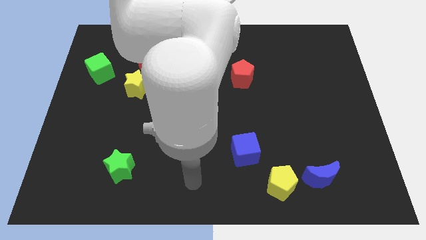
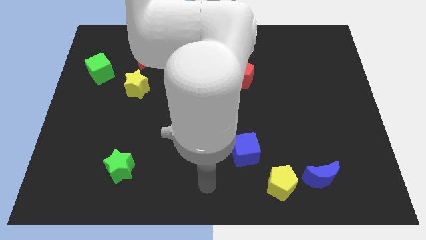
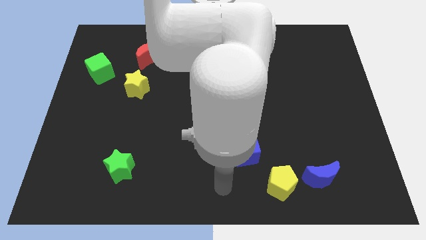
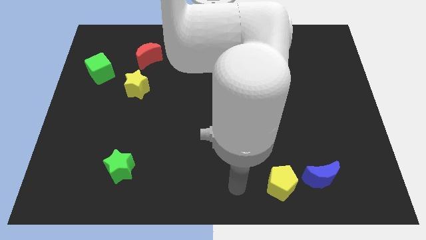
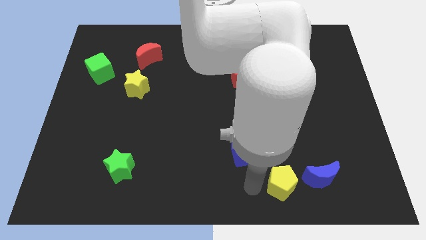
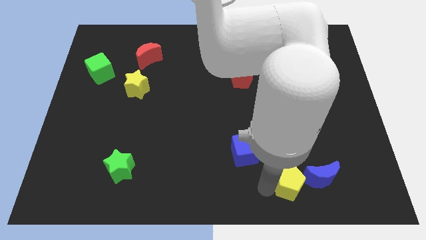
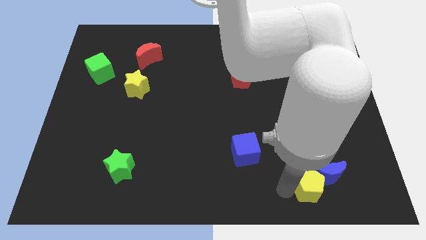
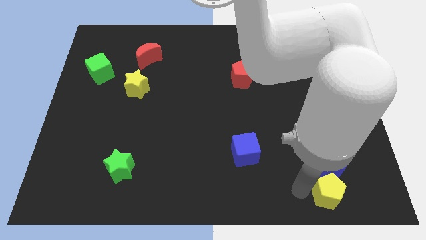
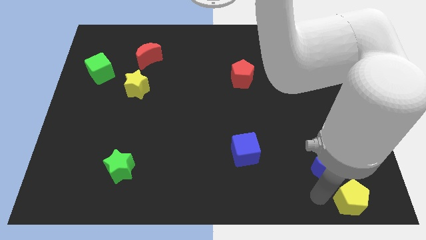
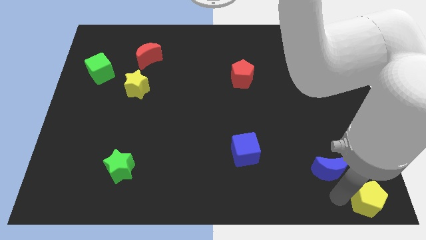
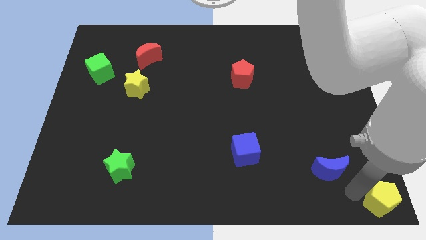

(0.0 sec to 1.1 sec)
pull the blue moon apart from the yellow pentagon

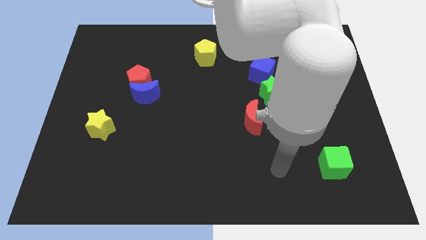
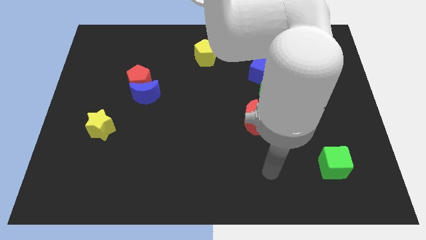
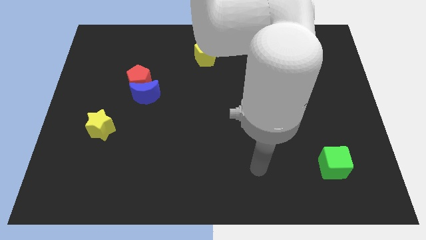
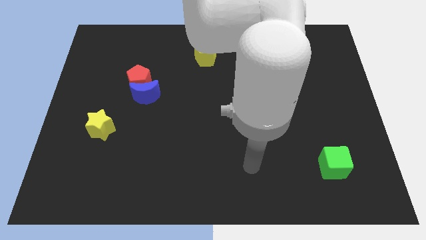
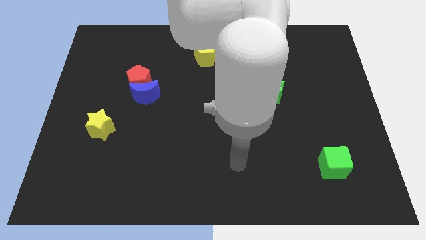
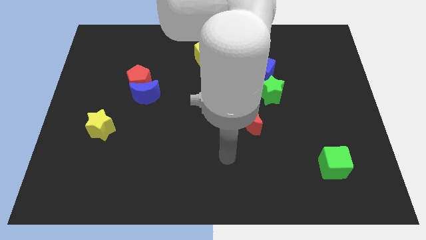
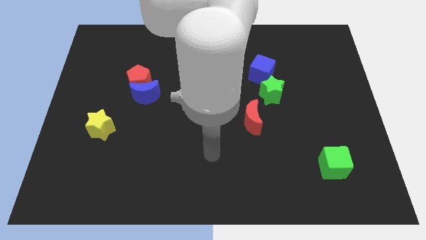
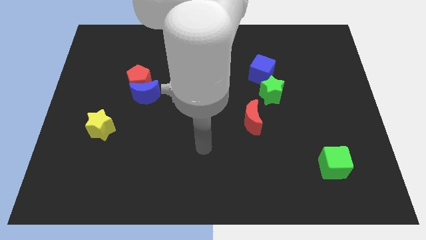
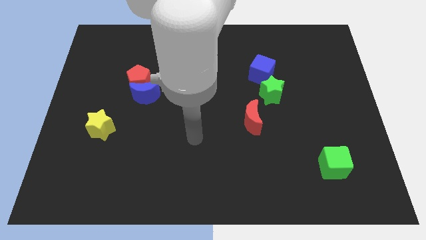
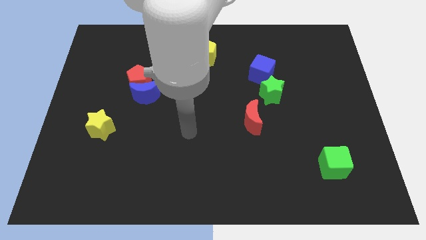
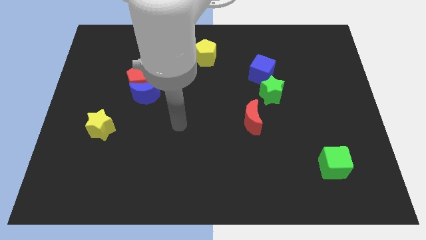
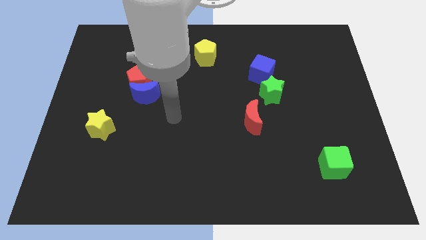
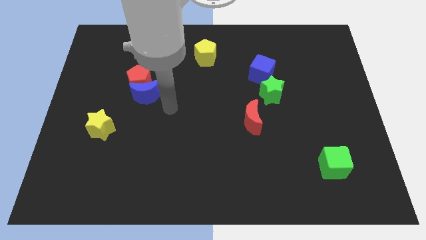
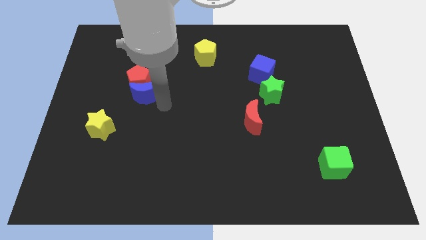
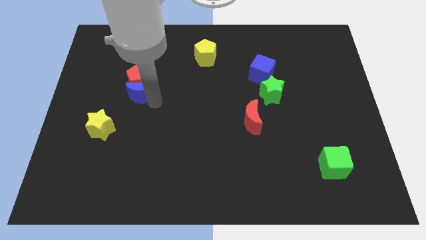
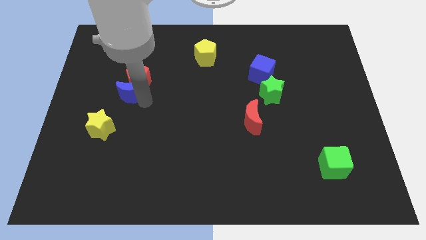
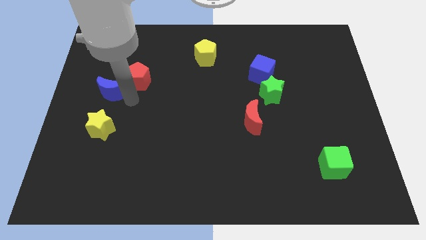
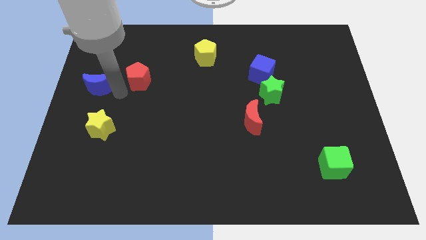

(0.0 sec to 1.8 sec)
move the red pentagon away from the blue moon

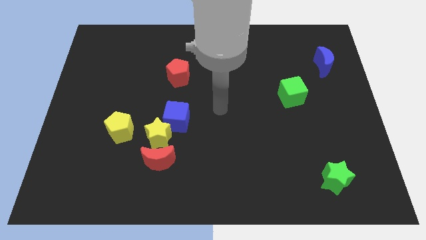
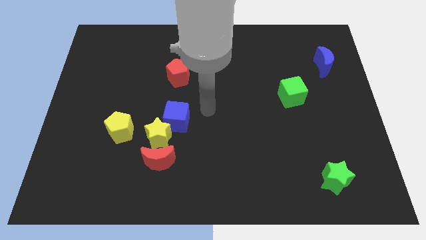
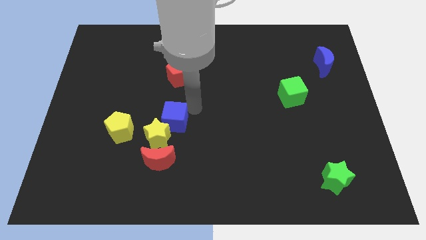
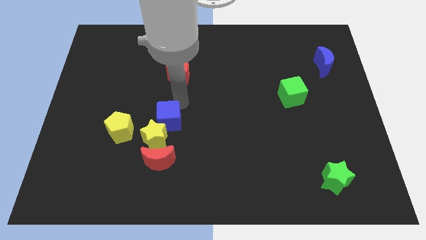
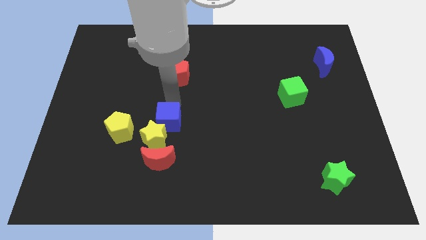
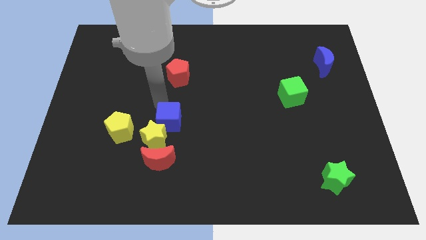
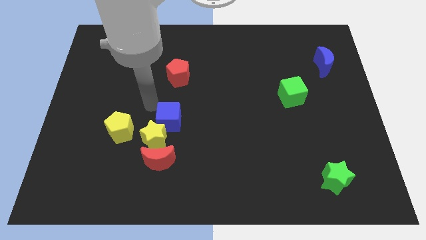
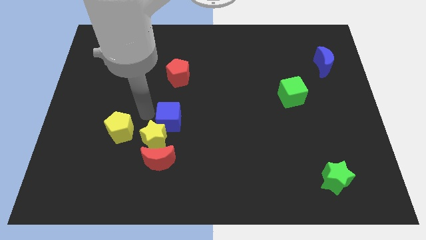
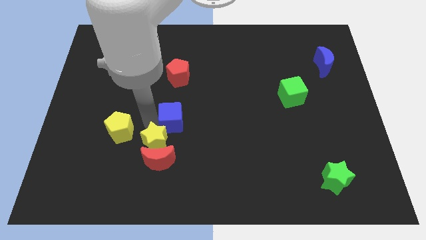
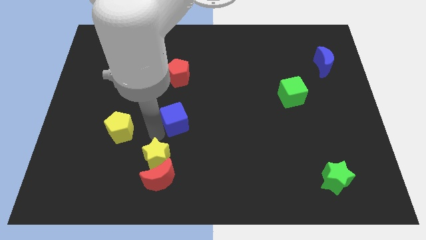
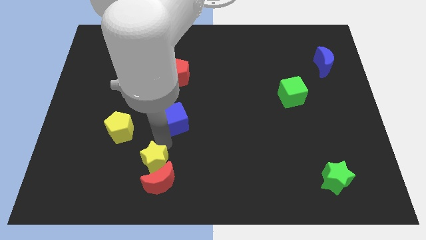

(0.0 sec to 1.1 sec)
pull the blue cube apart from the yellow star

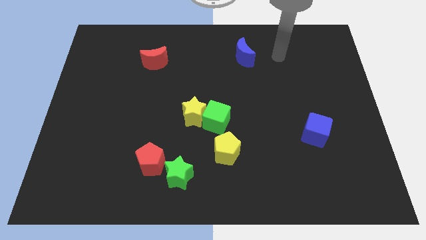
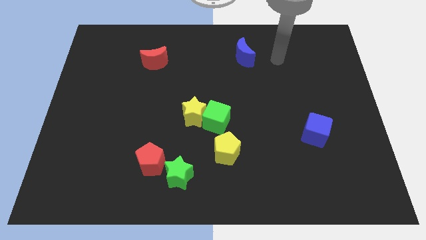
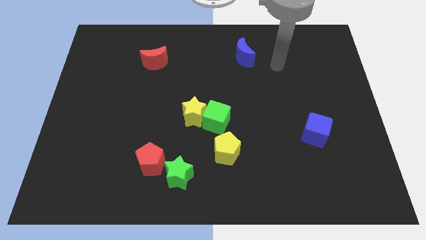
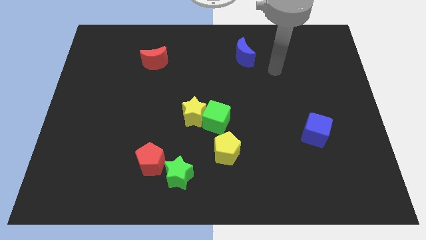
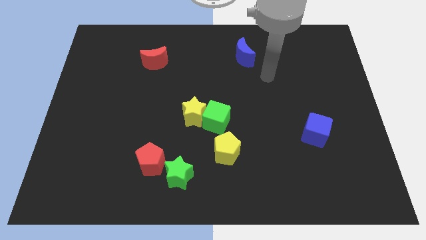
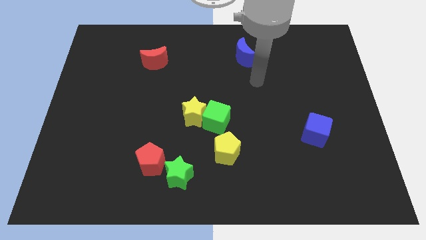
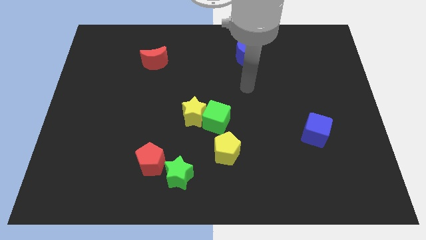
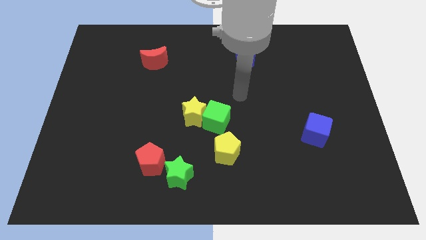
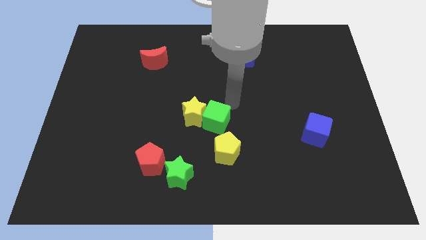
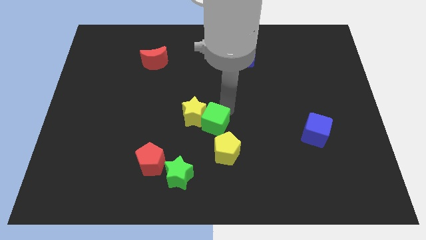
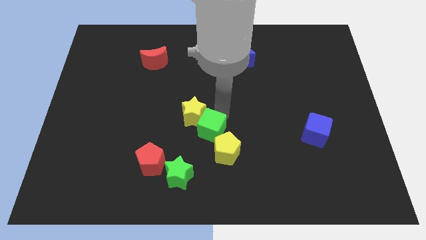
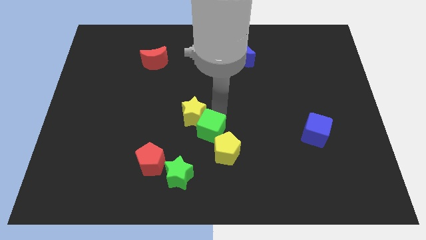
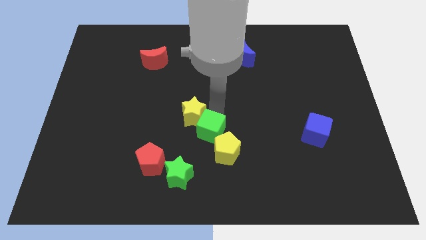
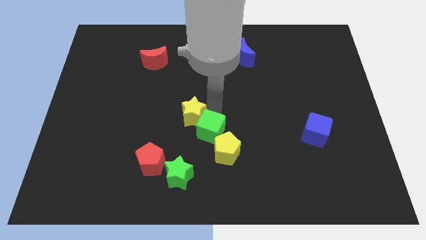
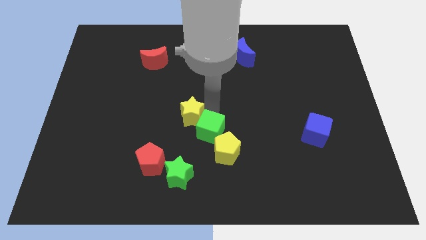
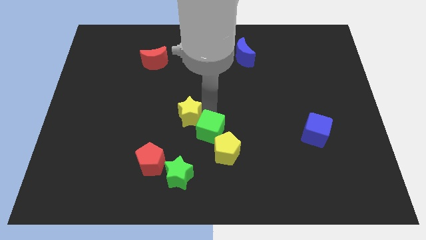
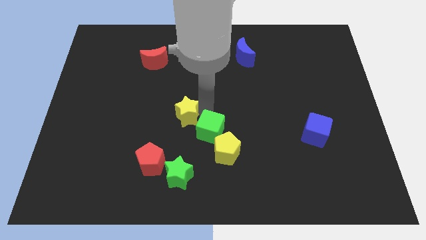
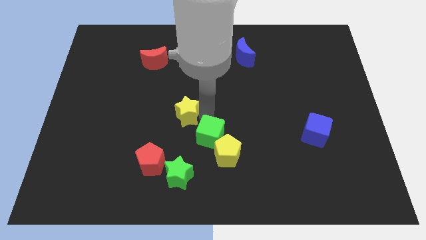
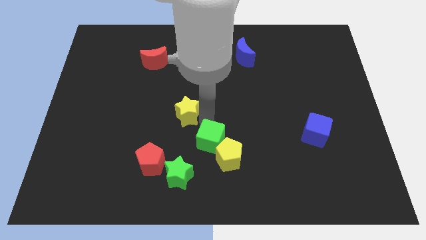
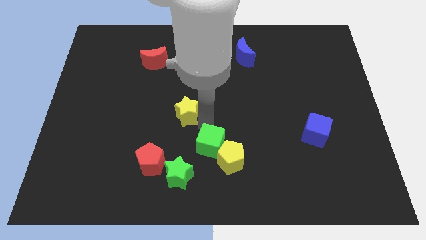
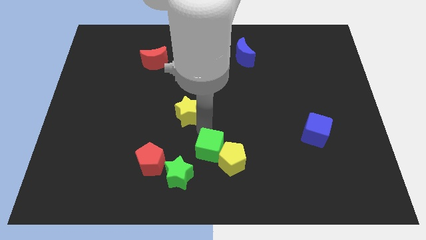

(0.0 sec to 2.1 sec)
pull the yellow star apart from the green cube

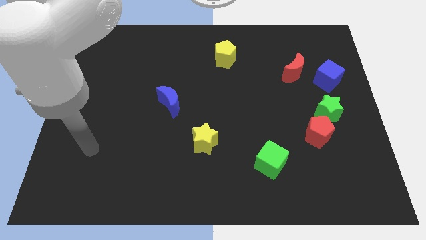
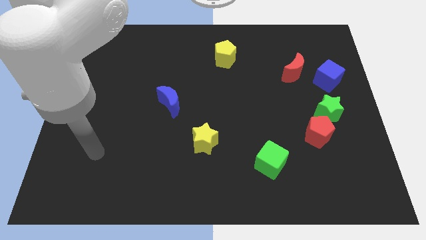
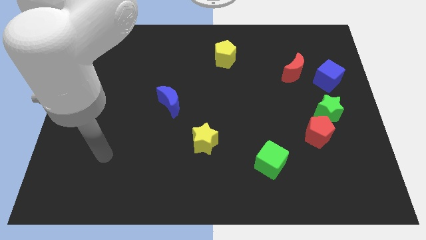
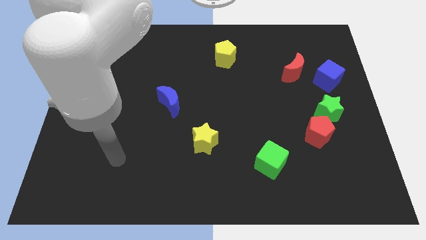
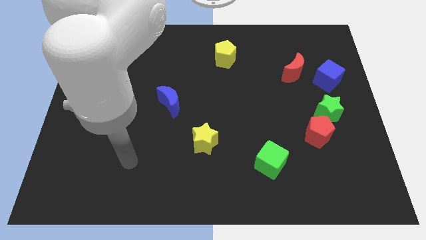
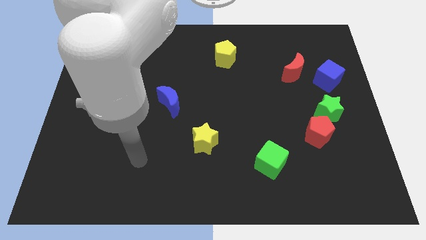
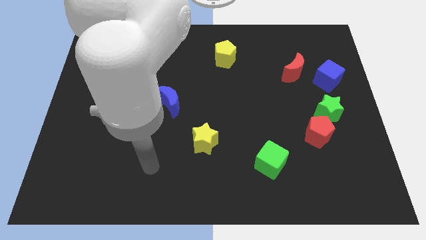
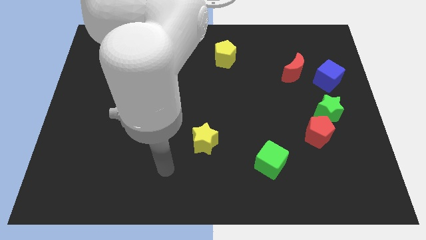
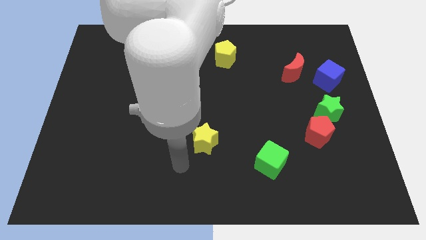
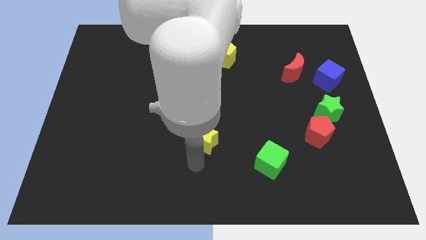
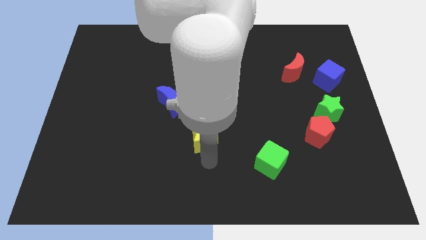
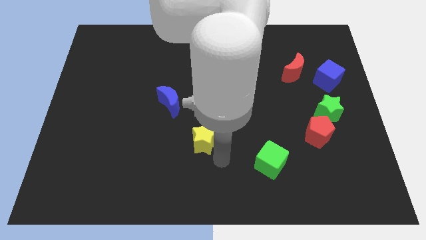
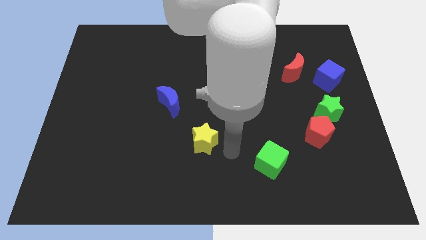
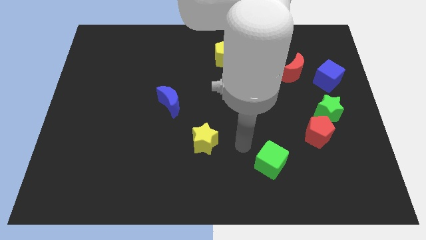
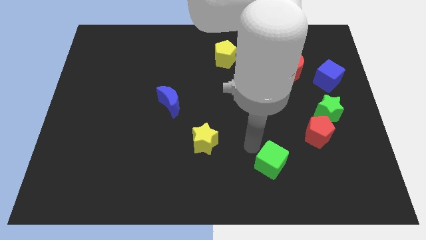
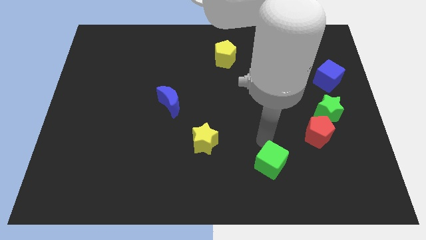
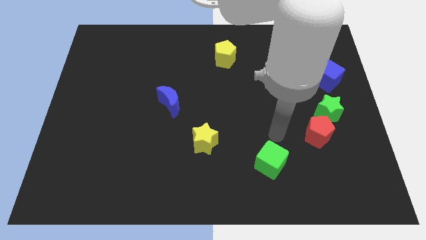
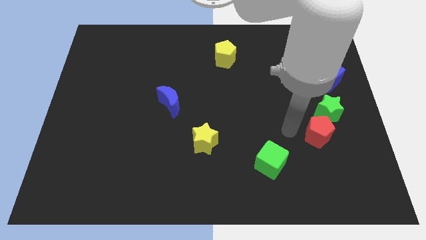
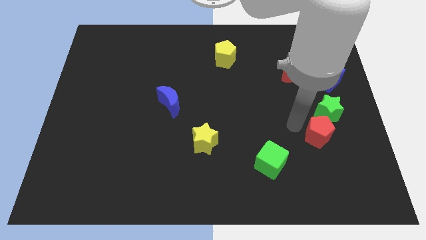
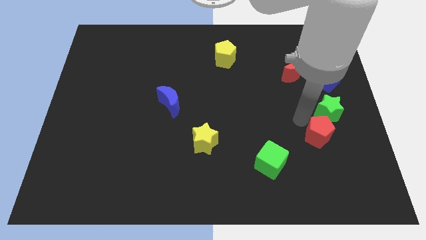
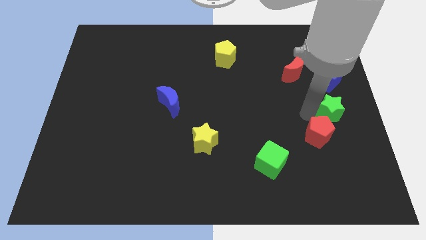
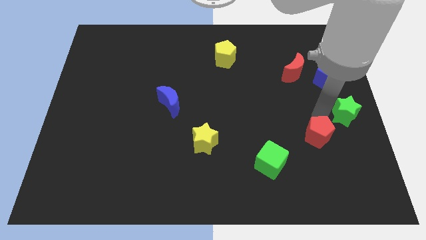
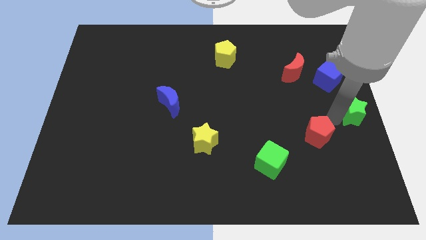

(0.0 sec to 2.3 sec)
move the red pentagon away from the green star

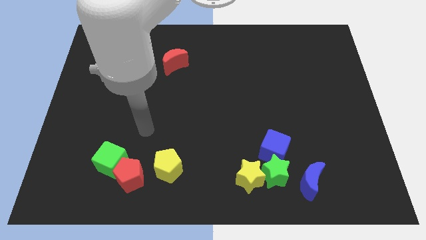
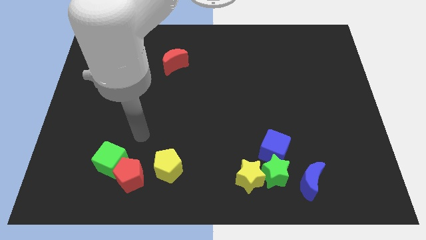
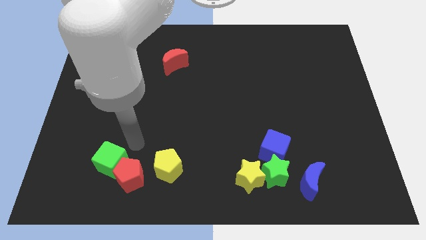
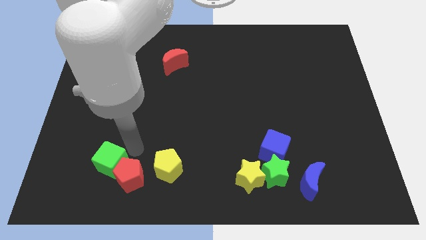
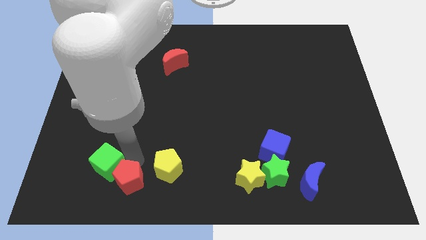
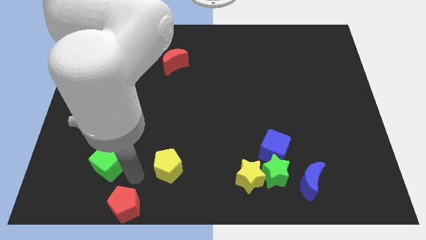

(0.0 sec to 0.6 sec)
separate the green cube from the red pentagon

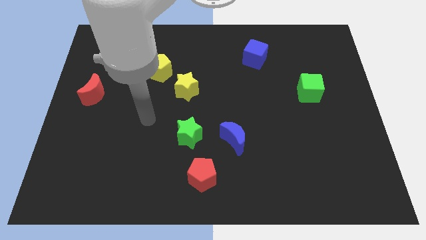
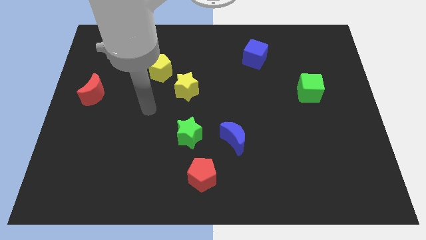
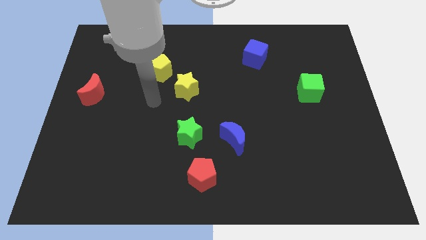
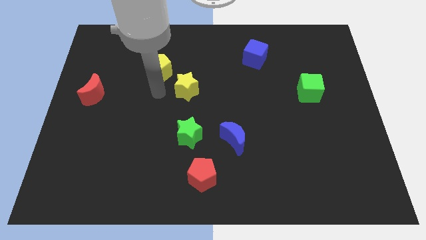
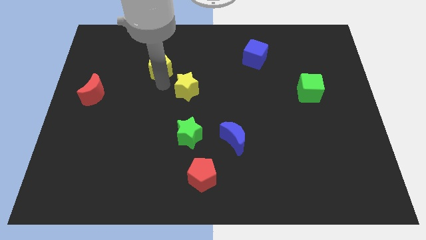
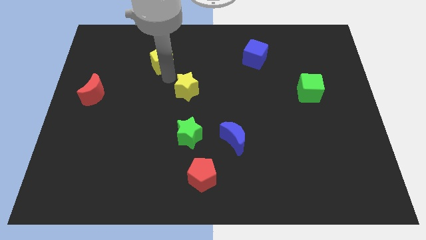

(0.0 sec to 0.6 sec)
separate the yellow star from the yellow pentagon
